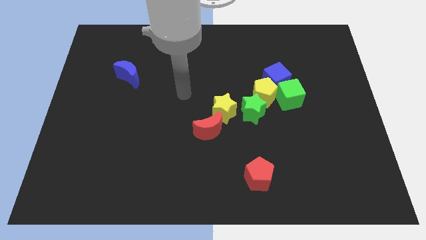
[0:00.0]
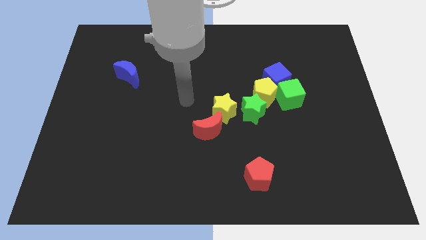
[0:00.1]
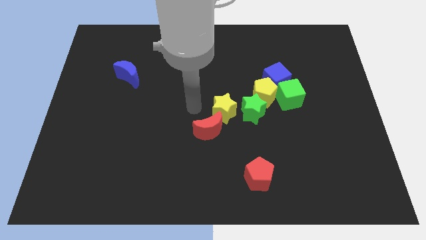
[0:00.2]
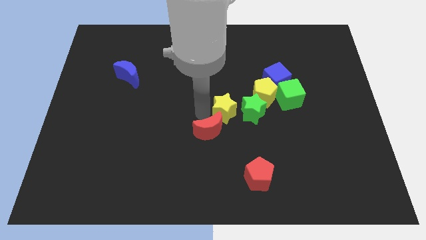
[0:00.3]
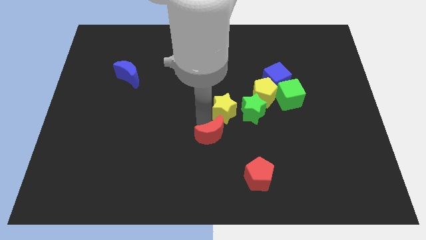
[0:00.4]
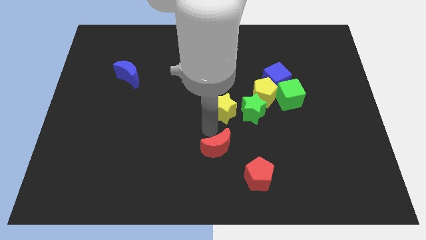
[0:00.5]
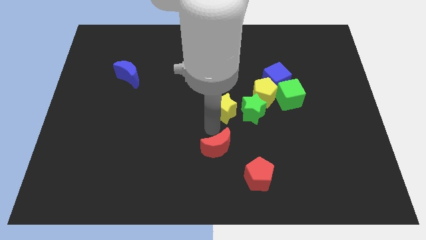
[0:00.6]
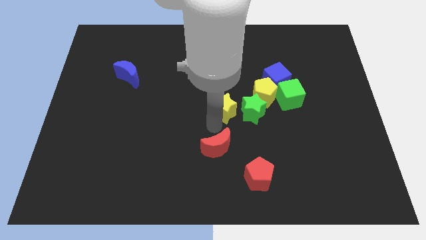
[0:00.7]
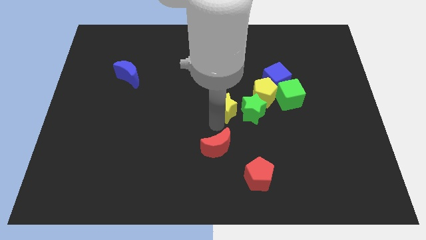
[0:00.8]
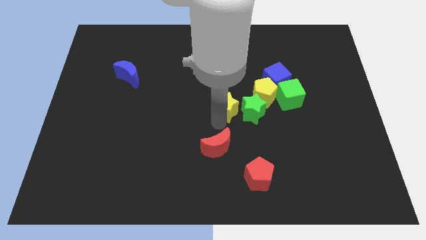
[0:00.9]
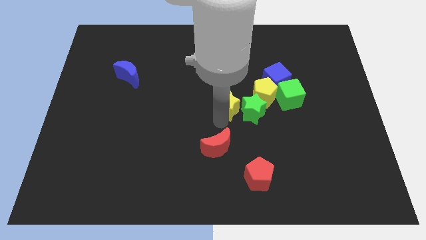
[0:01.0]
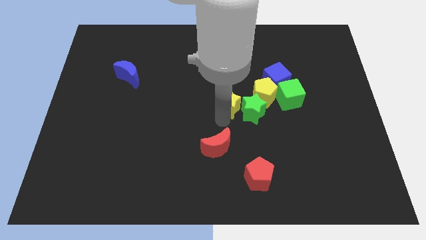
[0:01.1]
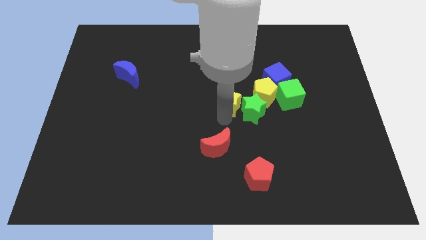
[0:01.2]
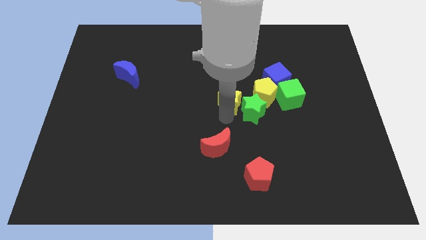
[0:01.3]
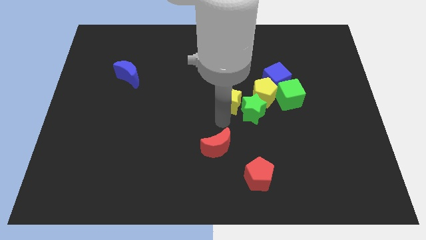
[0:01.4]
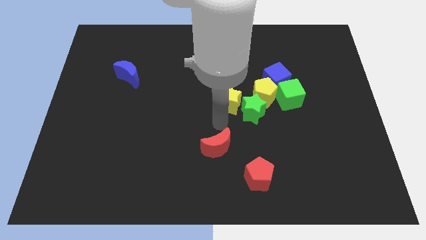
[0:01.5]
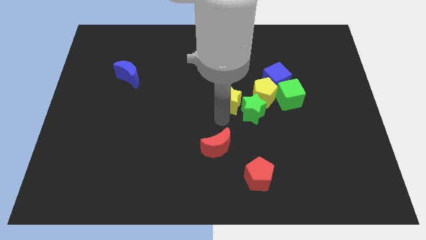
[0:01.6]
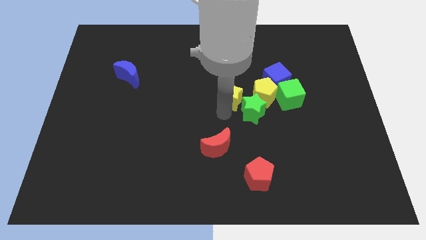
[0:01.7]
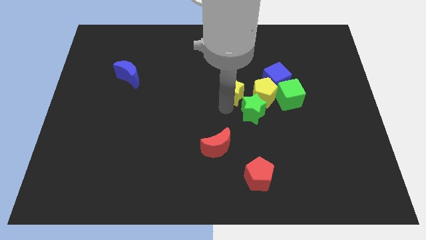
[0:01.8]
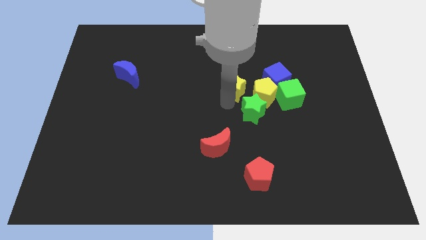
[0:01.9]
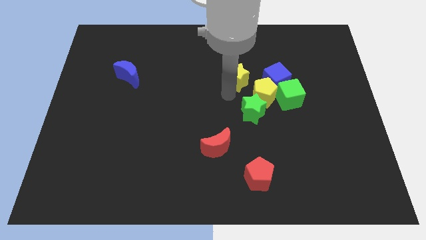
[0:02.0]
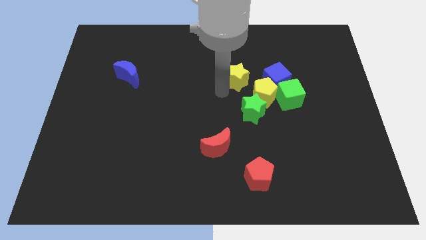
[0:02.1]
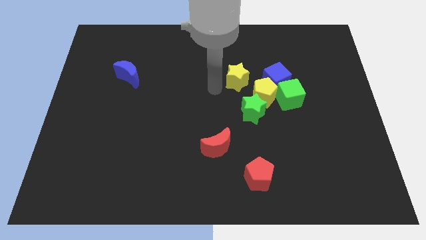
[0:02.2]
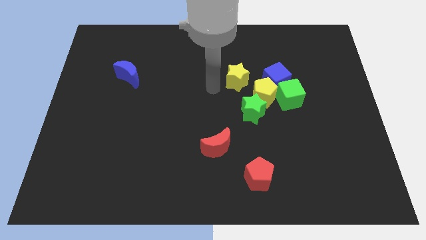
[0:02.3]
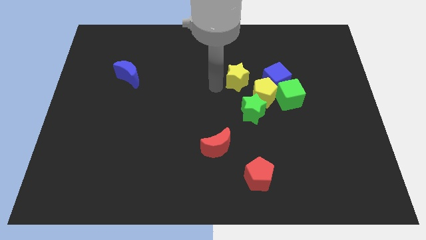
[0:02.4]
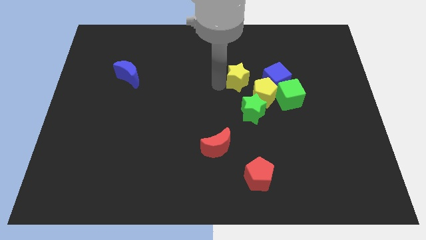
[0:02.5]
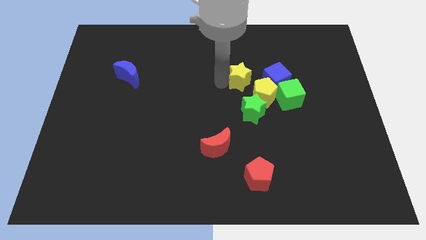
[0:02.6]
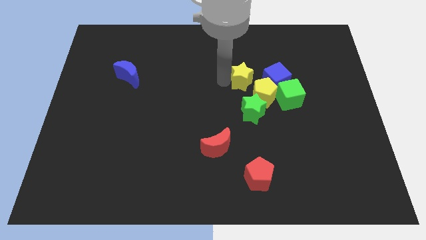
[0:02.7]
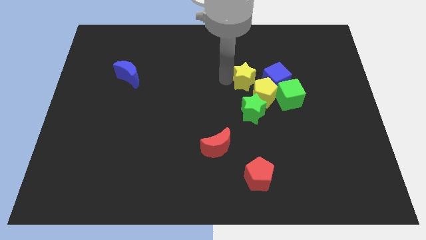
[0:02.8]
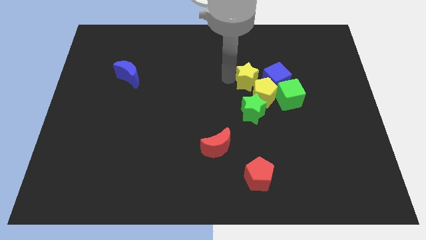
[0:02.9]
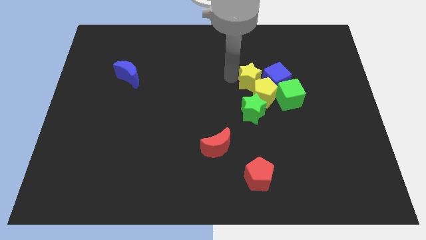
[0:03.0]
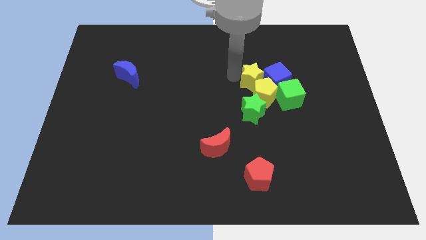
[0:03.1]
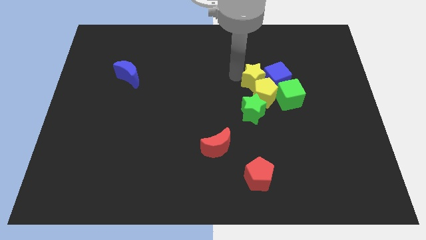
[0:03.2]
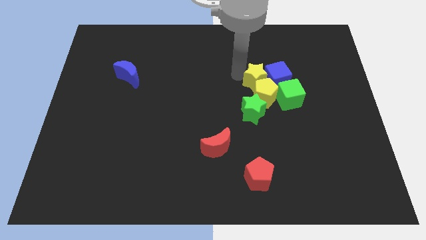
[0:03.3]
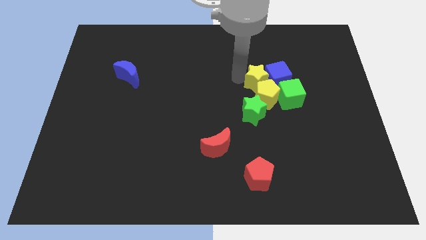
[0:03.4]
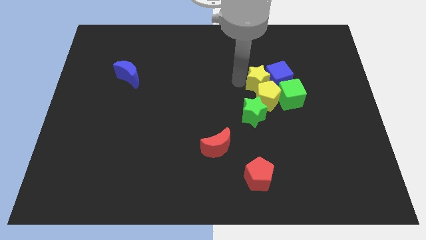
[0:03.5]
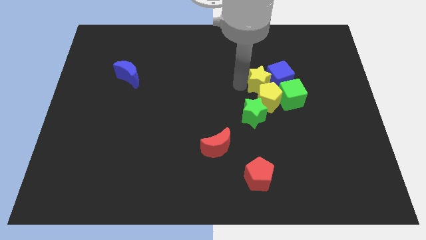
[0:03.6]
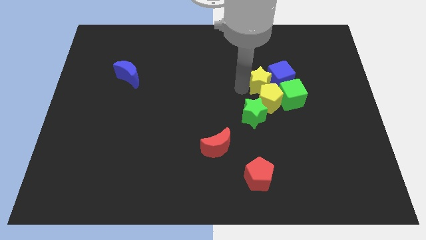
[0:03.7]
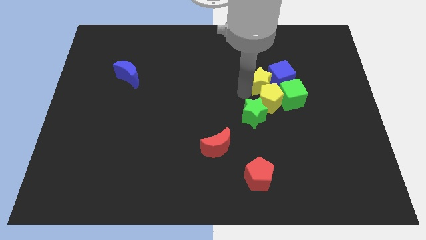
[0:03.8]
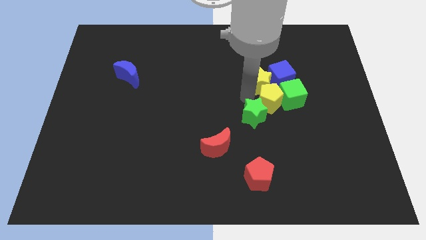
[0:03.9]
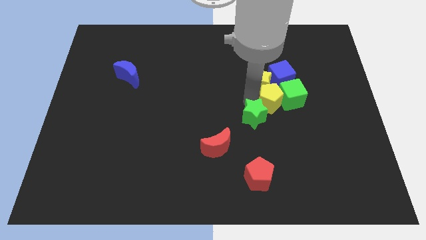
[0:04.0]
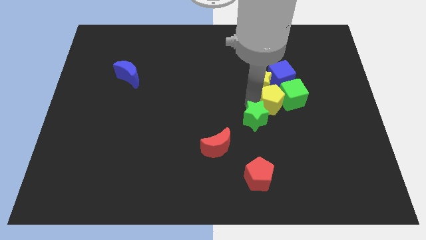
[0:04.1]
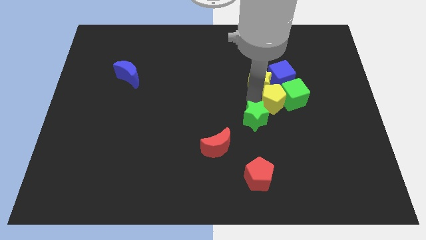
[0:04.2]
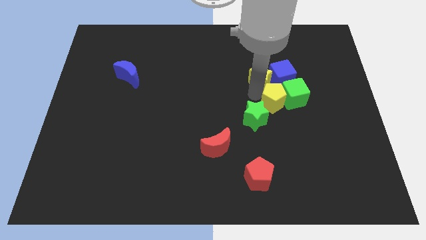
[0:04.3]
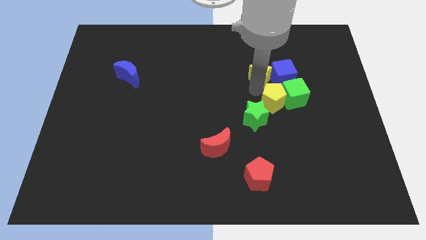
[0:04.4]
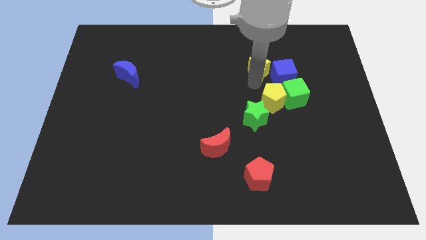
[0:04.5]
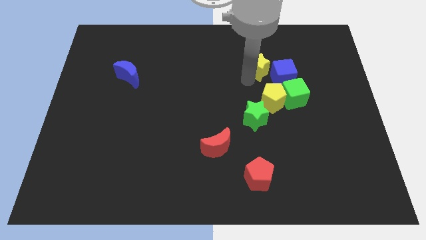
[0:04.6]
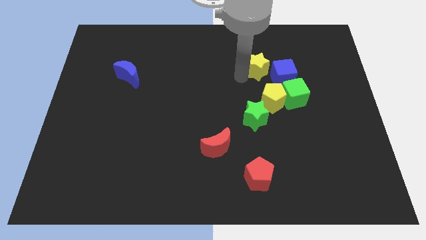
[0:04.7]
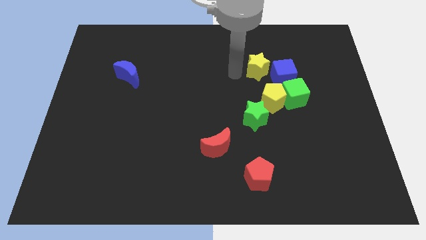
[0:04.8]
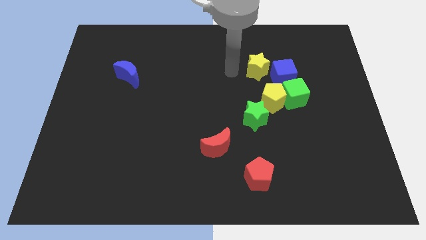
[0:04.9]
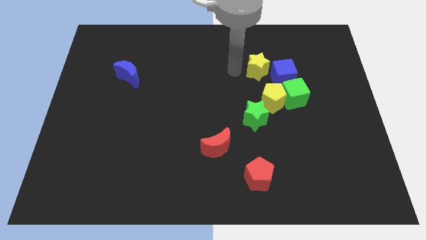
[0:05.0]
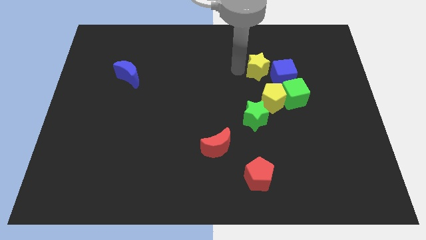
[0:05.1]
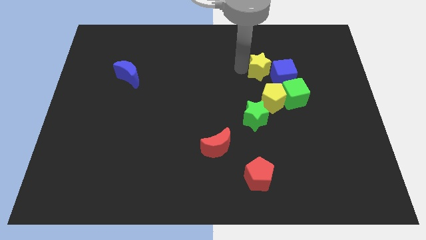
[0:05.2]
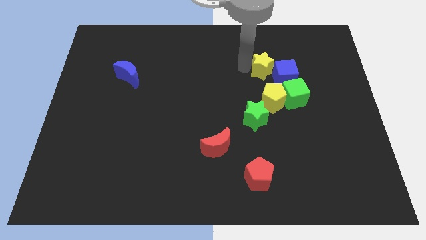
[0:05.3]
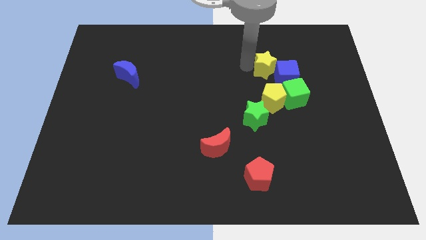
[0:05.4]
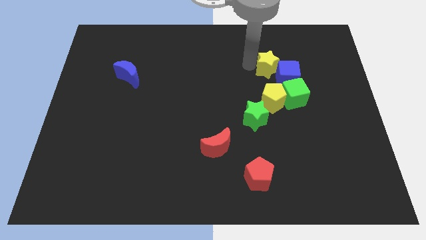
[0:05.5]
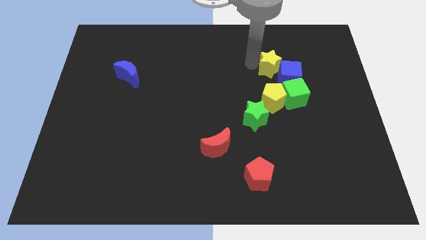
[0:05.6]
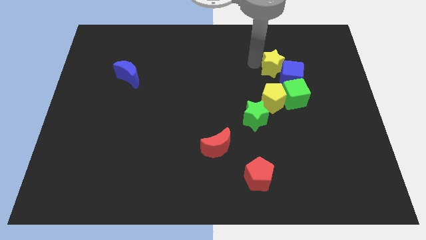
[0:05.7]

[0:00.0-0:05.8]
put the yellow star to the top side of the green cube

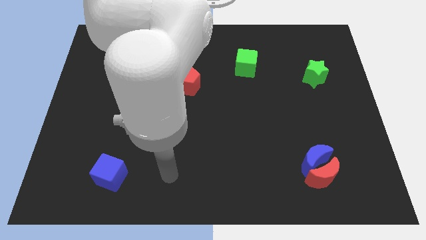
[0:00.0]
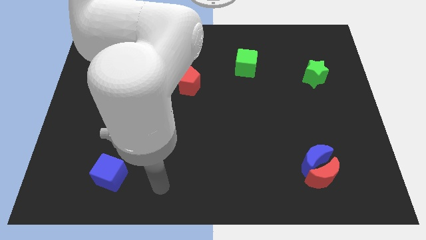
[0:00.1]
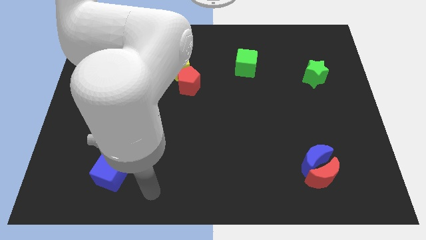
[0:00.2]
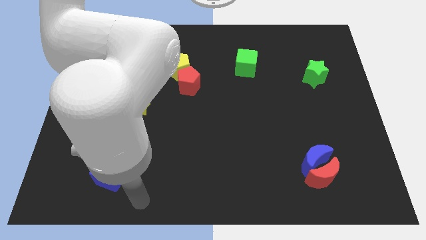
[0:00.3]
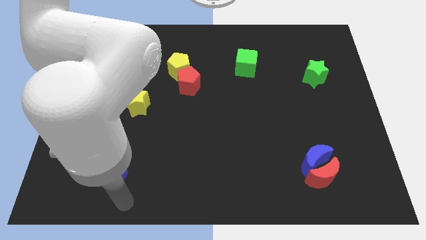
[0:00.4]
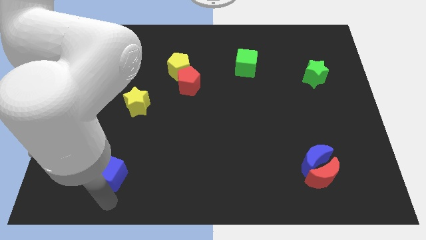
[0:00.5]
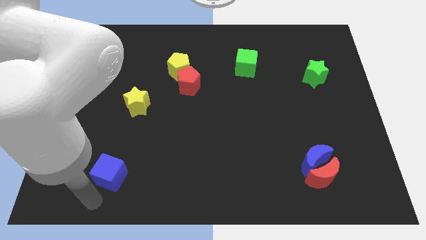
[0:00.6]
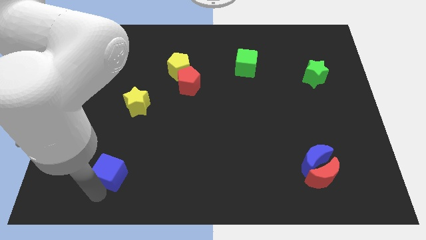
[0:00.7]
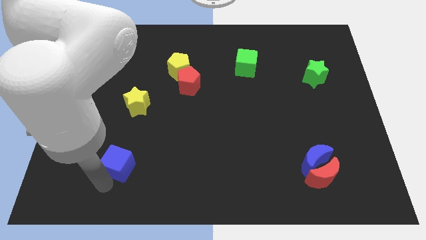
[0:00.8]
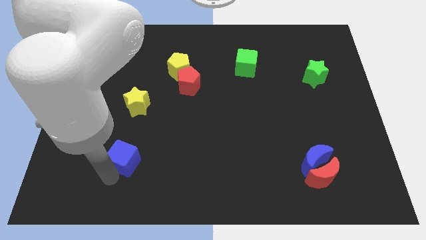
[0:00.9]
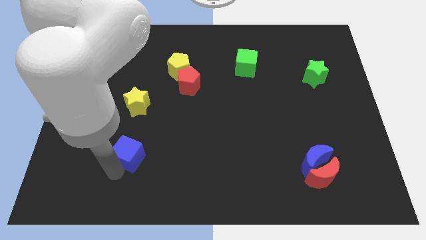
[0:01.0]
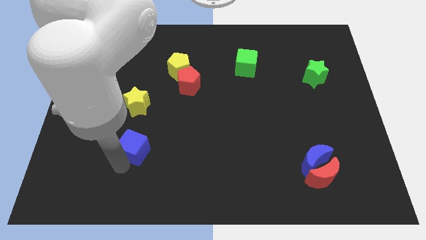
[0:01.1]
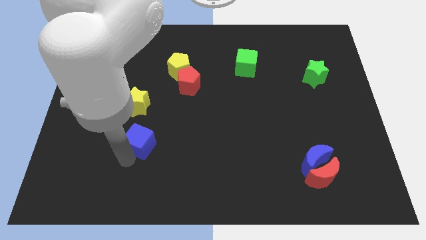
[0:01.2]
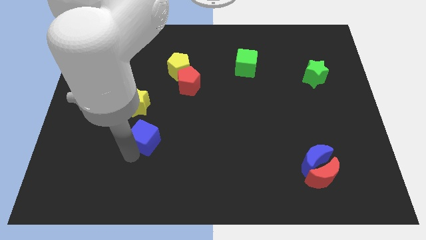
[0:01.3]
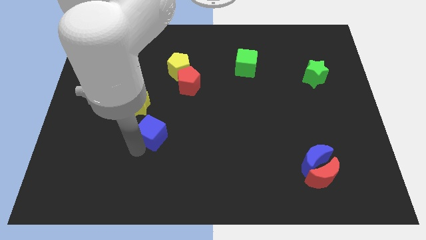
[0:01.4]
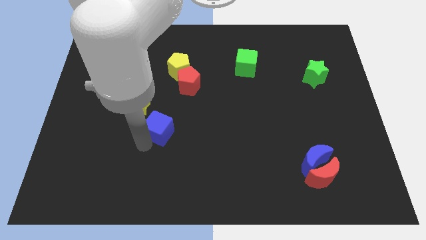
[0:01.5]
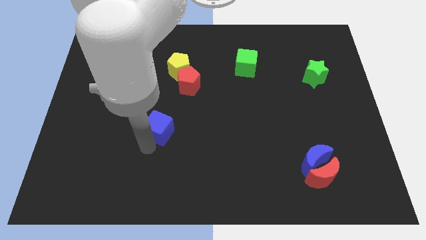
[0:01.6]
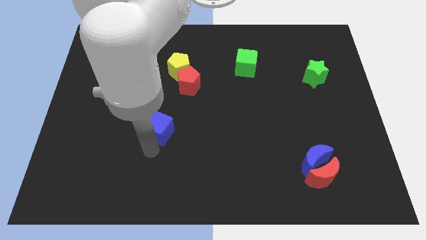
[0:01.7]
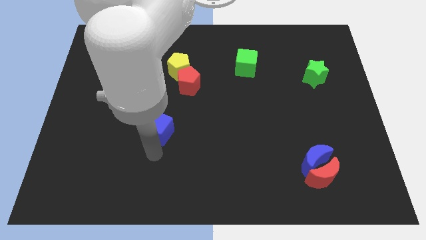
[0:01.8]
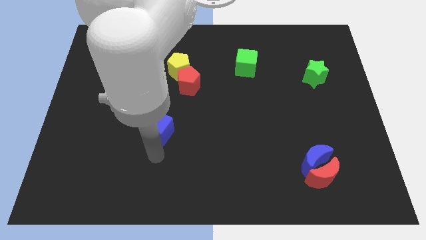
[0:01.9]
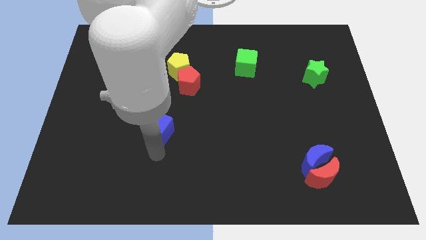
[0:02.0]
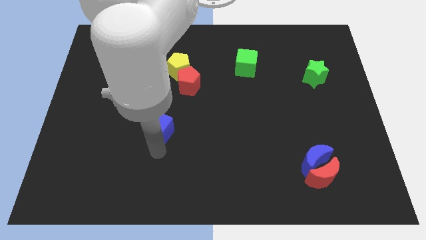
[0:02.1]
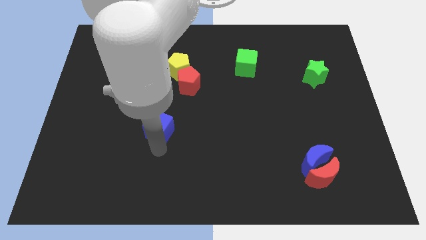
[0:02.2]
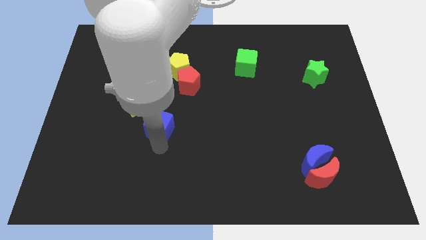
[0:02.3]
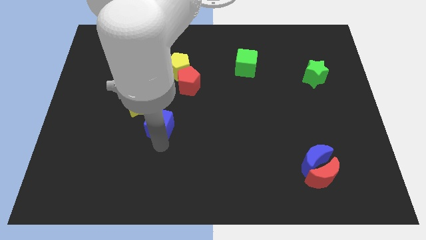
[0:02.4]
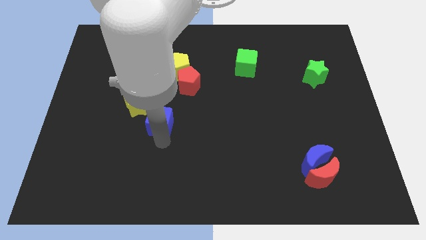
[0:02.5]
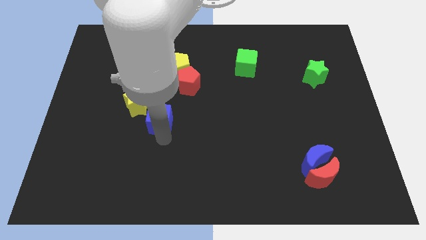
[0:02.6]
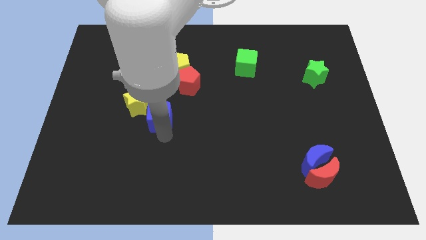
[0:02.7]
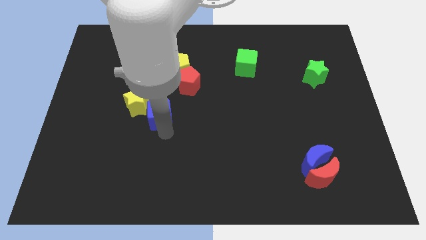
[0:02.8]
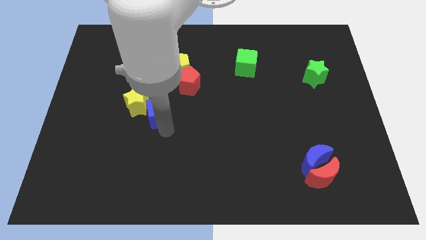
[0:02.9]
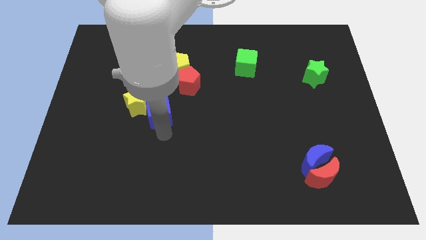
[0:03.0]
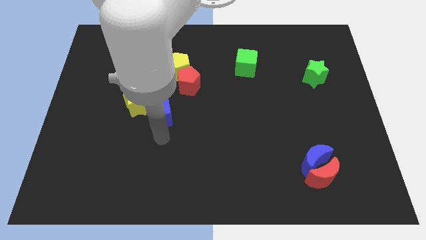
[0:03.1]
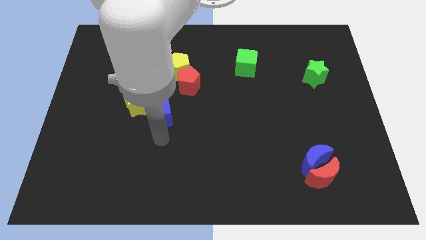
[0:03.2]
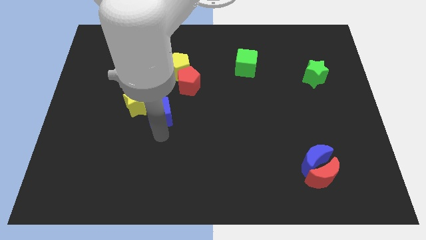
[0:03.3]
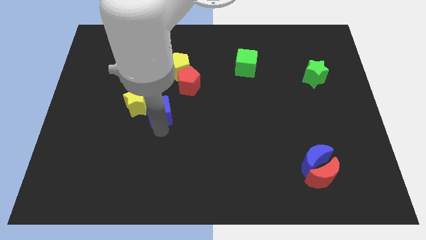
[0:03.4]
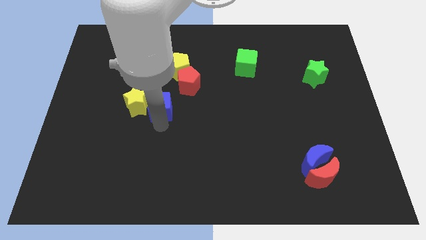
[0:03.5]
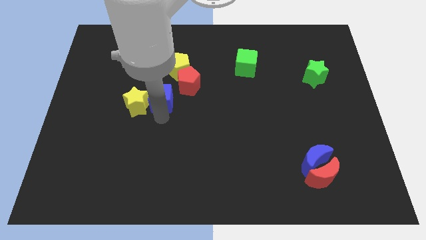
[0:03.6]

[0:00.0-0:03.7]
put the blue cube to the bottom left side of the yellow pentagon
